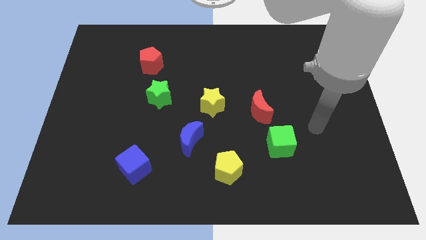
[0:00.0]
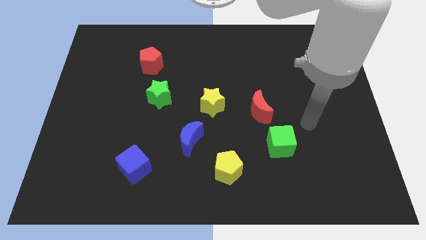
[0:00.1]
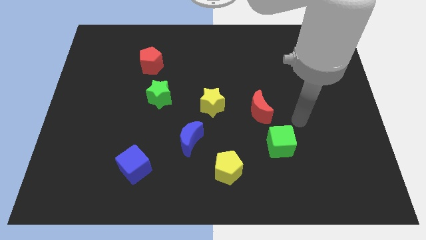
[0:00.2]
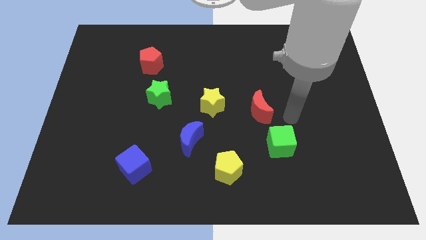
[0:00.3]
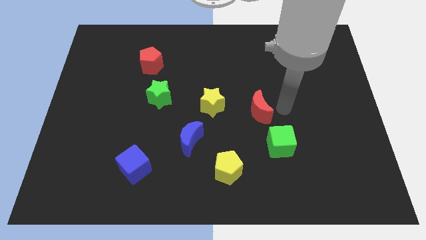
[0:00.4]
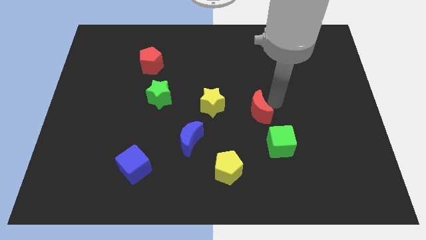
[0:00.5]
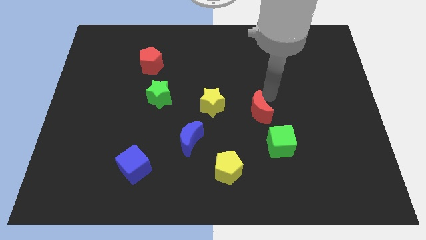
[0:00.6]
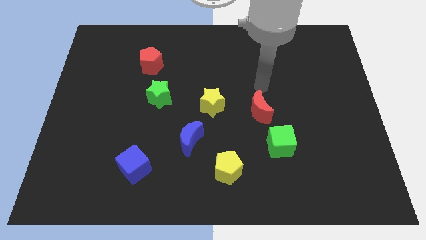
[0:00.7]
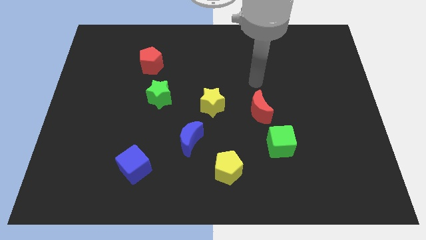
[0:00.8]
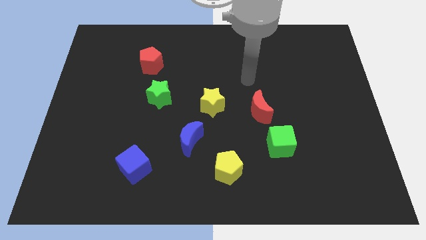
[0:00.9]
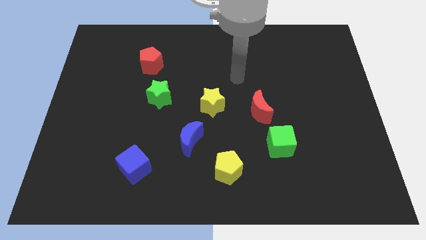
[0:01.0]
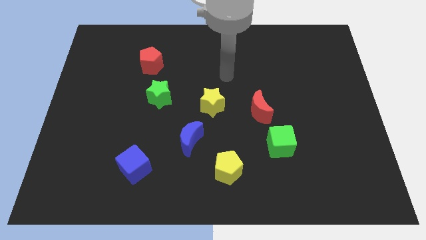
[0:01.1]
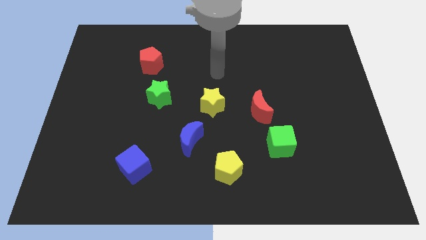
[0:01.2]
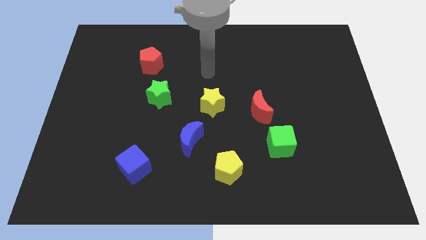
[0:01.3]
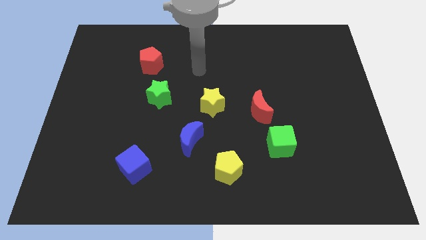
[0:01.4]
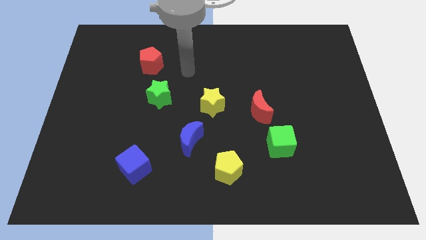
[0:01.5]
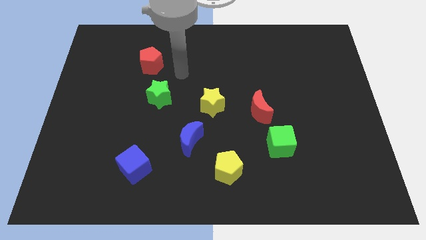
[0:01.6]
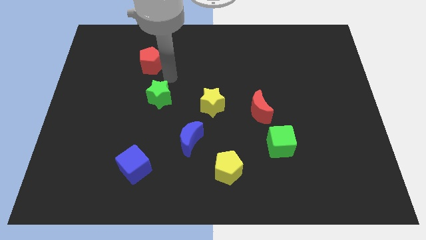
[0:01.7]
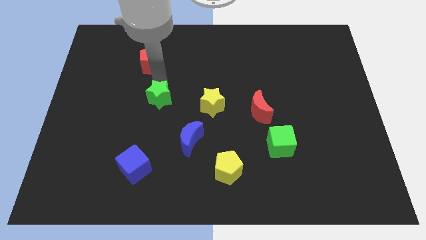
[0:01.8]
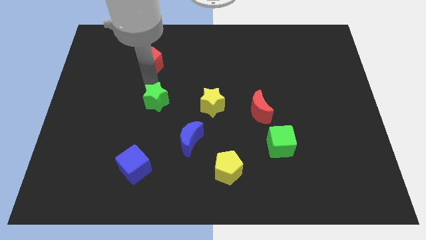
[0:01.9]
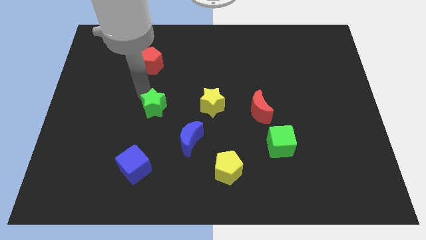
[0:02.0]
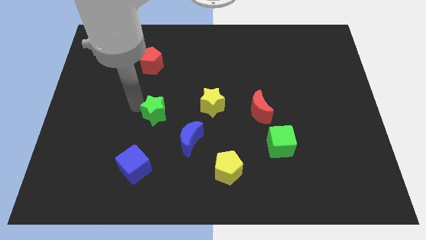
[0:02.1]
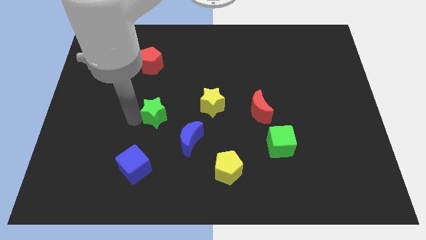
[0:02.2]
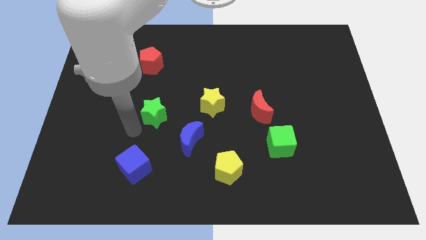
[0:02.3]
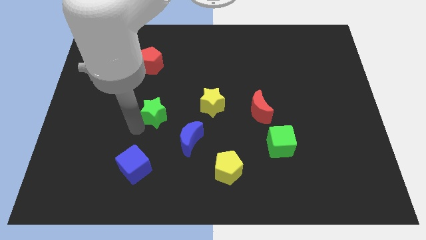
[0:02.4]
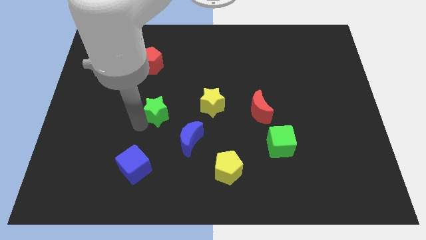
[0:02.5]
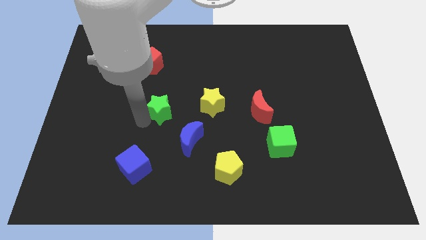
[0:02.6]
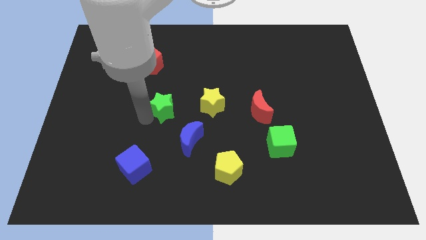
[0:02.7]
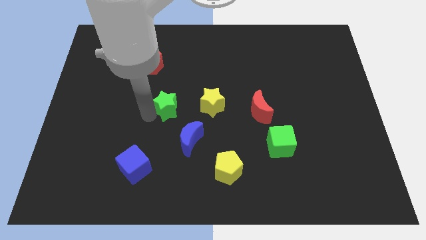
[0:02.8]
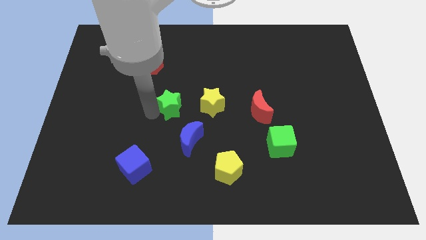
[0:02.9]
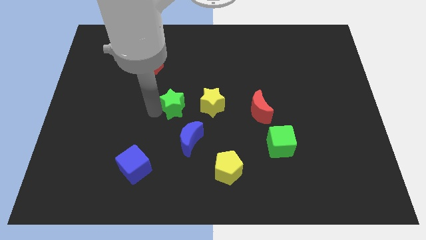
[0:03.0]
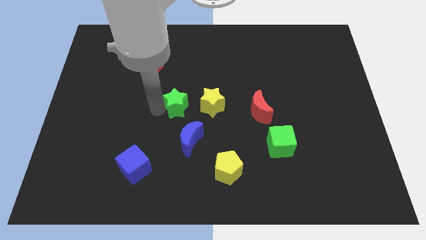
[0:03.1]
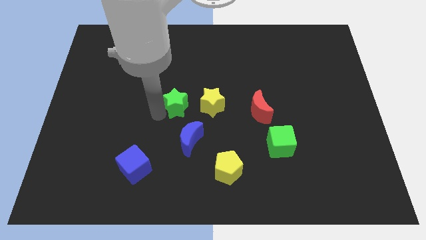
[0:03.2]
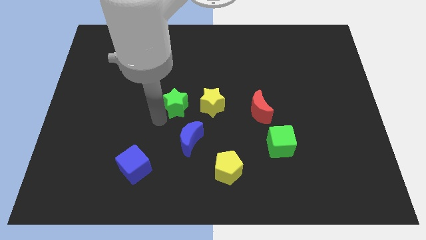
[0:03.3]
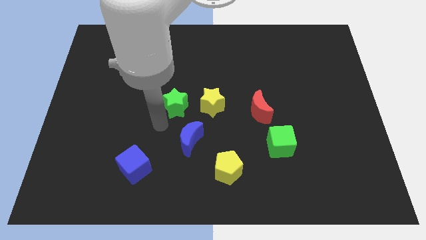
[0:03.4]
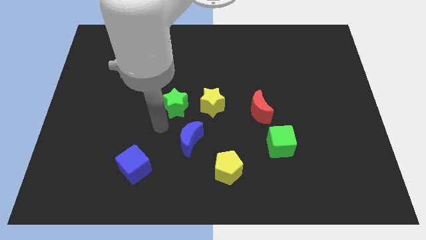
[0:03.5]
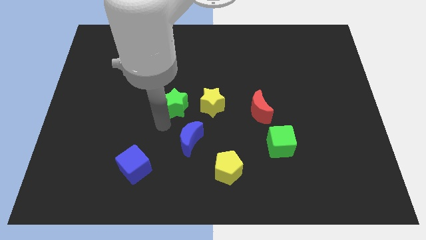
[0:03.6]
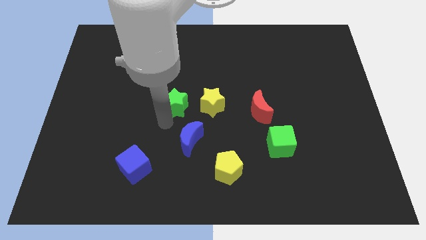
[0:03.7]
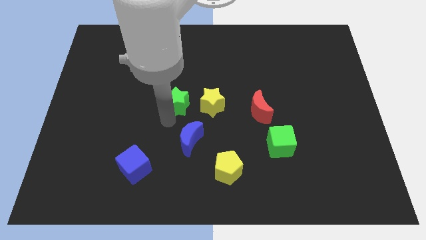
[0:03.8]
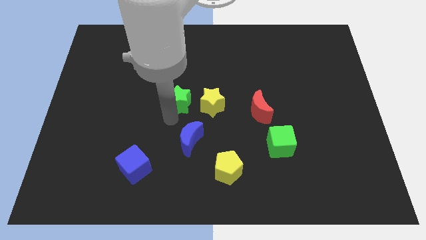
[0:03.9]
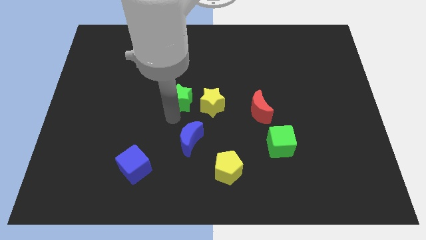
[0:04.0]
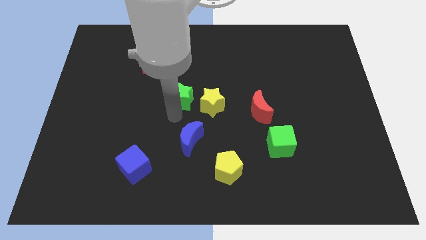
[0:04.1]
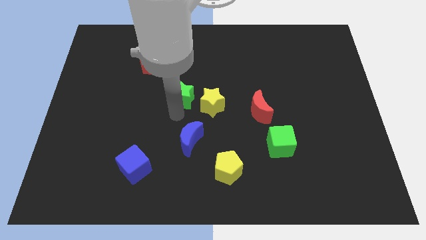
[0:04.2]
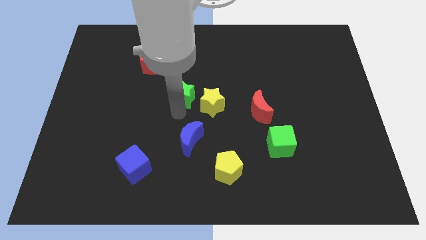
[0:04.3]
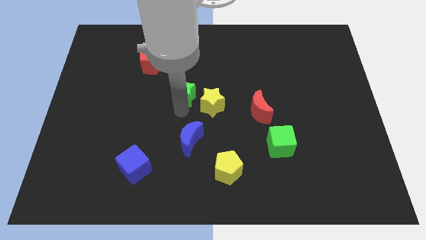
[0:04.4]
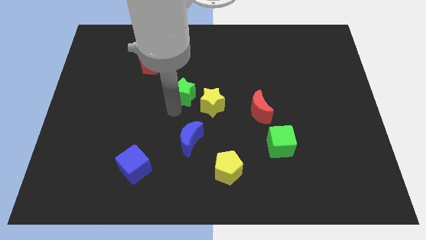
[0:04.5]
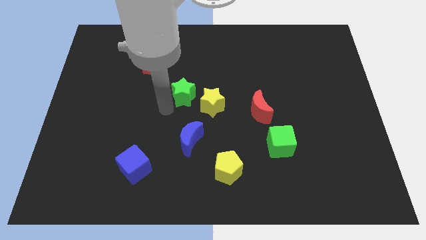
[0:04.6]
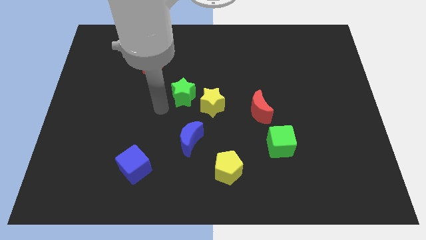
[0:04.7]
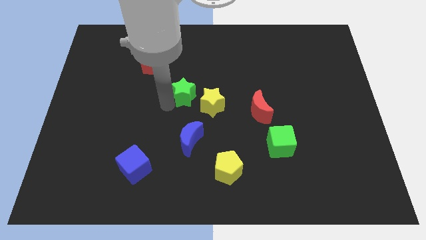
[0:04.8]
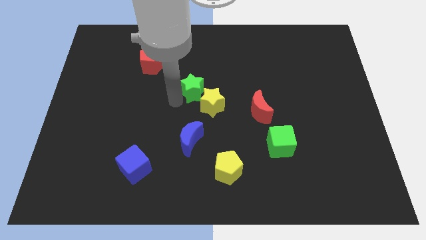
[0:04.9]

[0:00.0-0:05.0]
slightly move the green star right

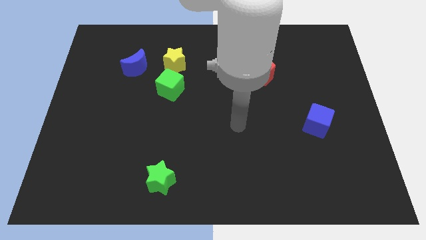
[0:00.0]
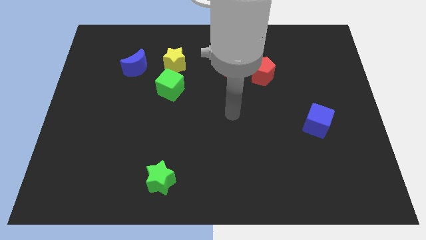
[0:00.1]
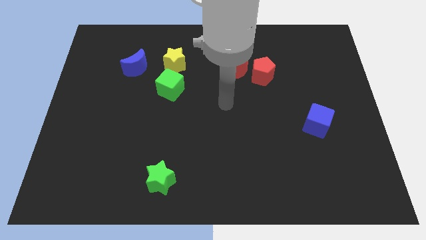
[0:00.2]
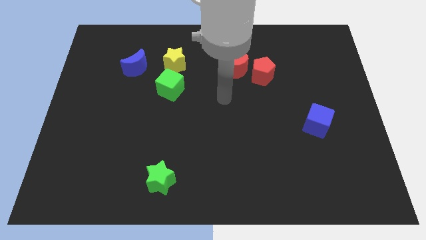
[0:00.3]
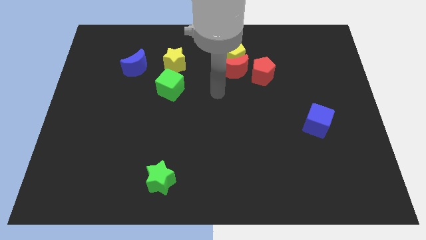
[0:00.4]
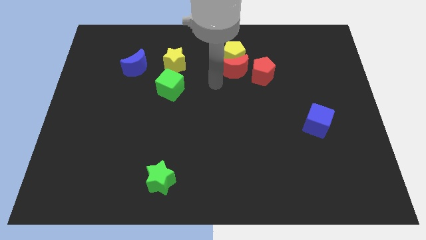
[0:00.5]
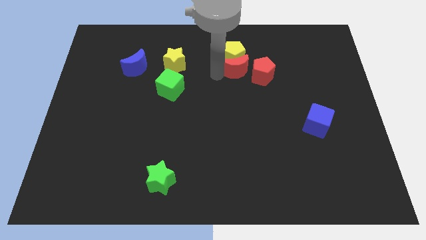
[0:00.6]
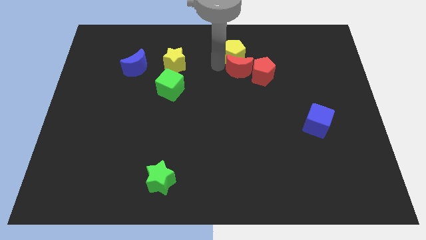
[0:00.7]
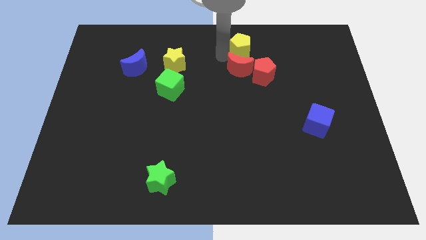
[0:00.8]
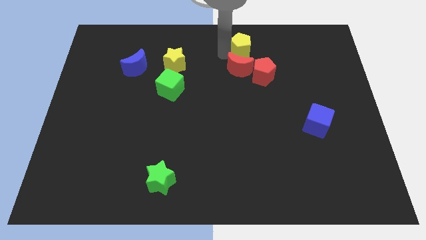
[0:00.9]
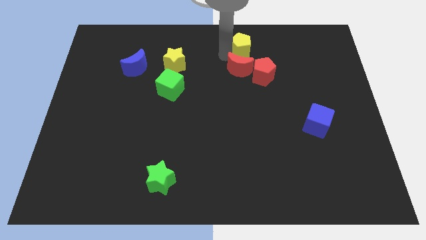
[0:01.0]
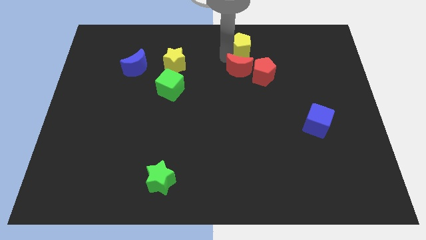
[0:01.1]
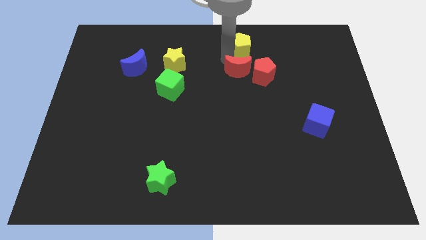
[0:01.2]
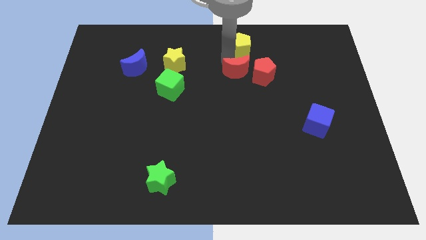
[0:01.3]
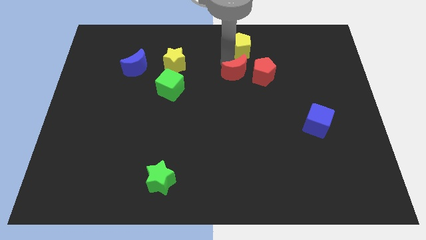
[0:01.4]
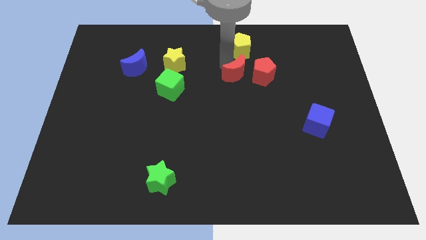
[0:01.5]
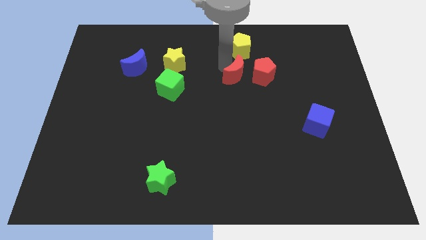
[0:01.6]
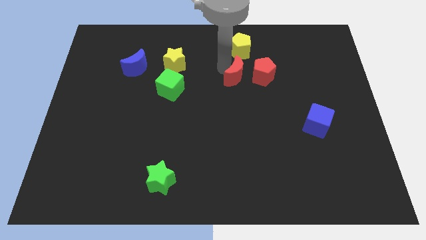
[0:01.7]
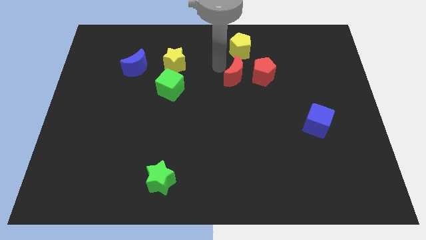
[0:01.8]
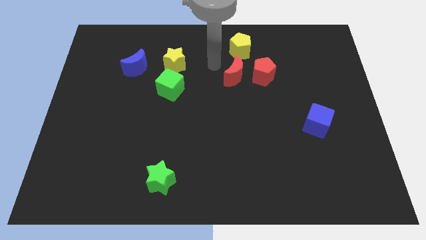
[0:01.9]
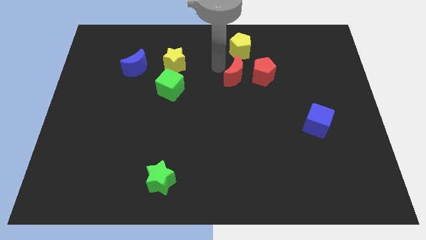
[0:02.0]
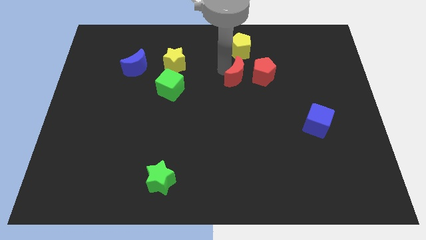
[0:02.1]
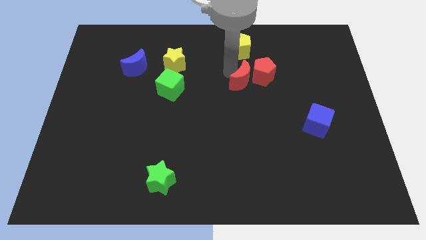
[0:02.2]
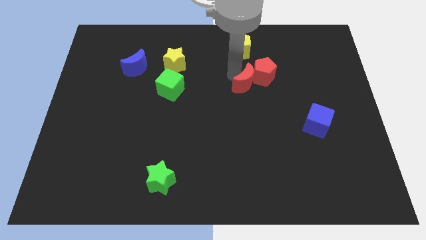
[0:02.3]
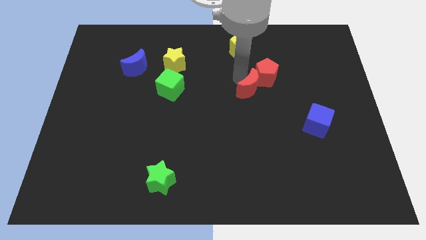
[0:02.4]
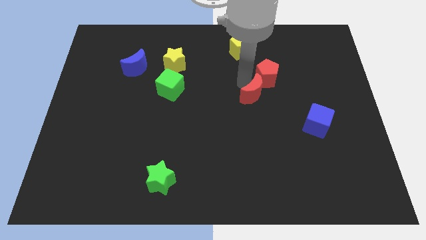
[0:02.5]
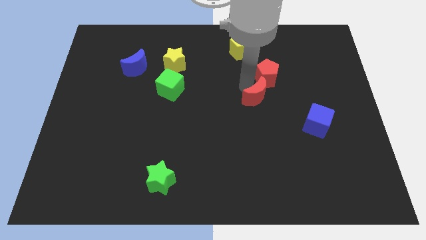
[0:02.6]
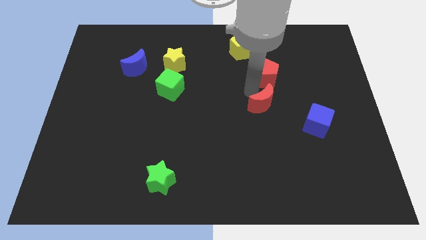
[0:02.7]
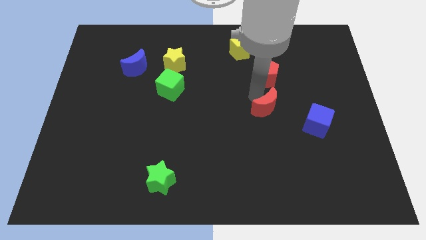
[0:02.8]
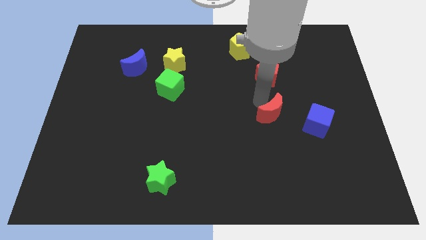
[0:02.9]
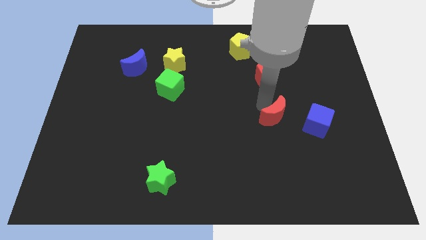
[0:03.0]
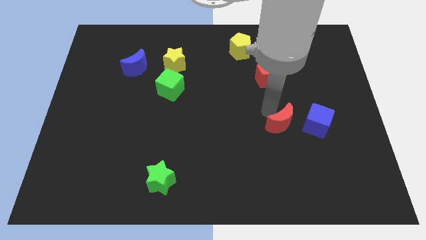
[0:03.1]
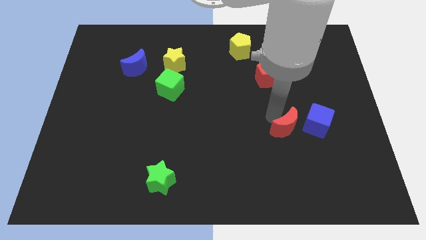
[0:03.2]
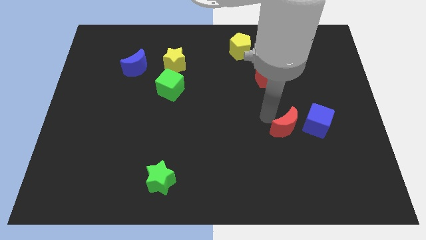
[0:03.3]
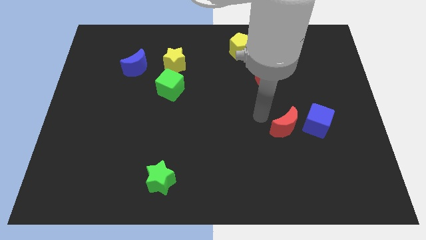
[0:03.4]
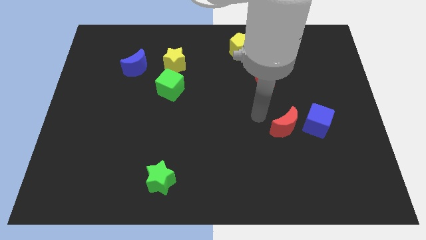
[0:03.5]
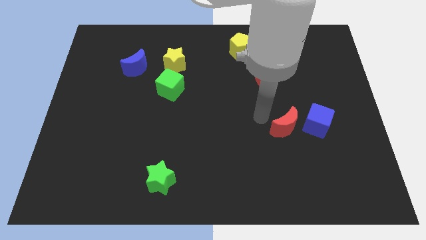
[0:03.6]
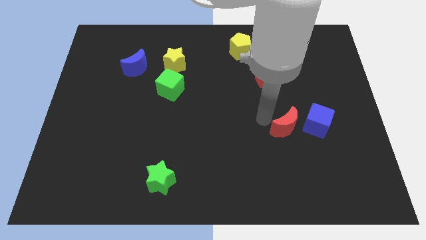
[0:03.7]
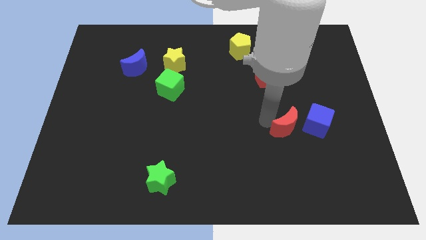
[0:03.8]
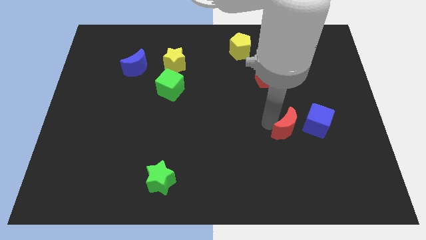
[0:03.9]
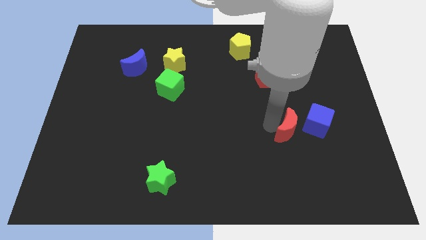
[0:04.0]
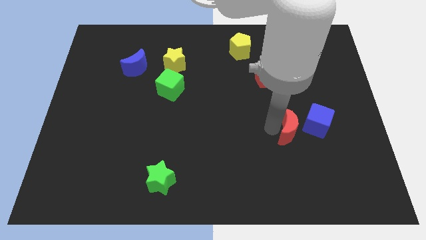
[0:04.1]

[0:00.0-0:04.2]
slide the red moon down and to the right diagonally
